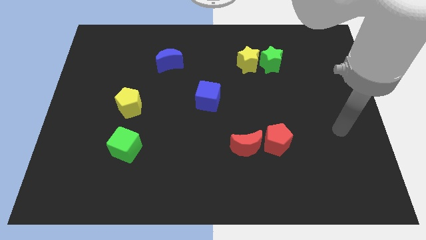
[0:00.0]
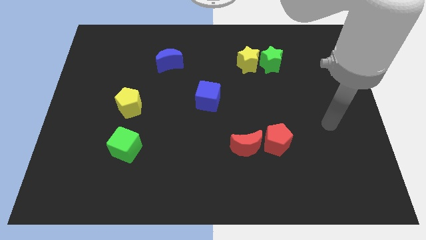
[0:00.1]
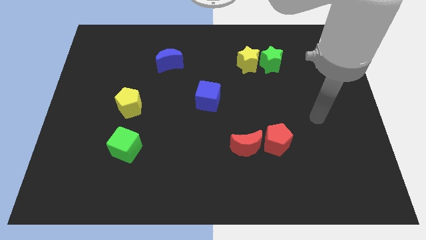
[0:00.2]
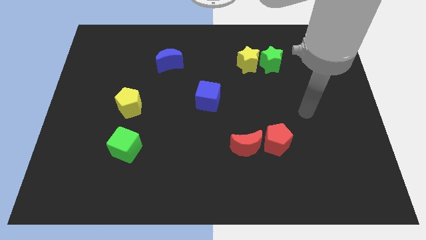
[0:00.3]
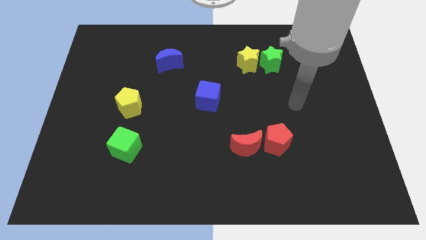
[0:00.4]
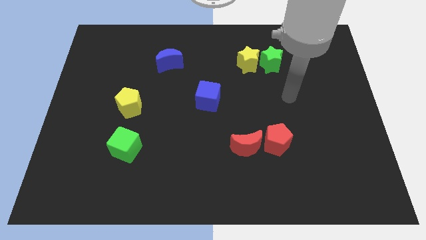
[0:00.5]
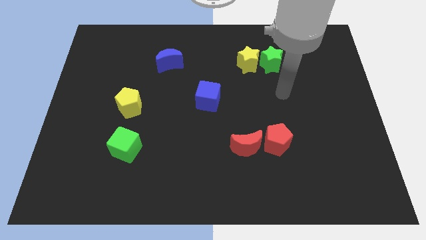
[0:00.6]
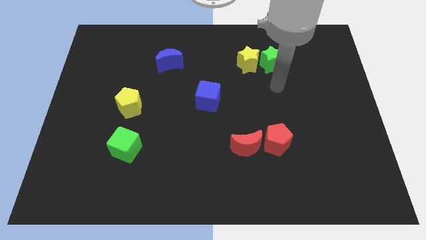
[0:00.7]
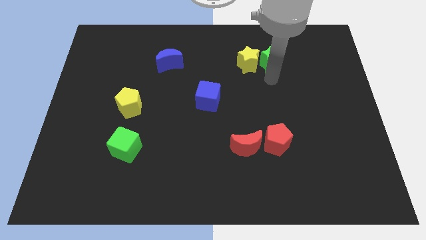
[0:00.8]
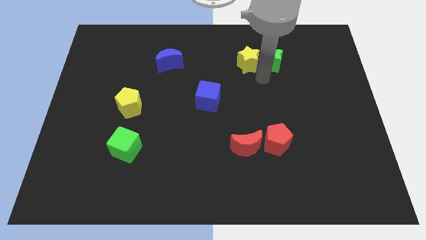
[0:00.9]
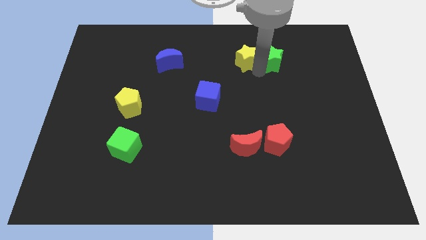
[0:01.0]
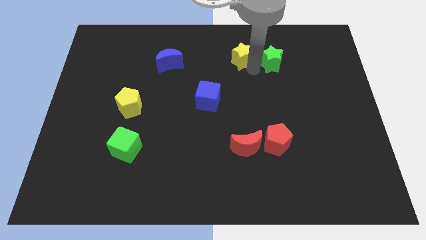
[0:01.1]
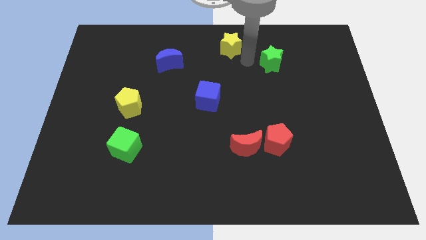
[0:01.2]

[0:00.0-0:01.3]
pull the green star apart from the yellow star

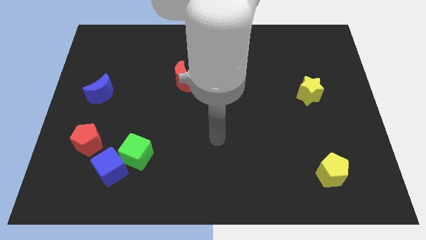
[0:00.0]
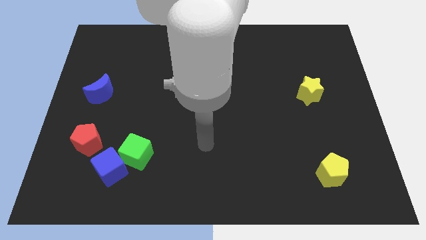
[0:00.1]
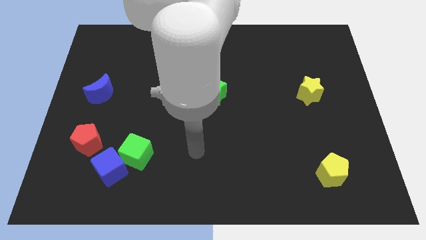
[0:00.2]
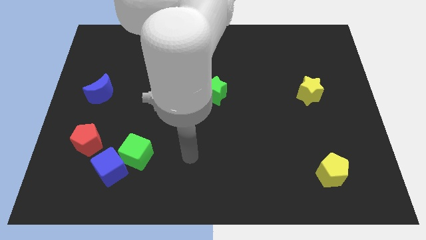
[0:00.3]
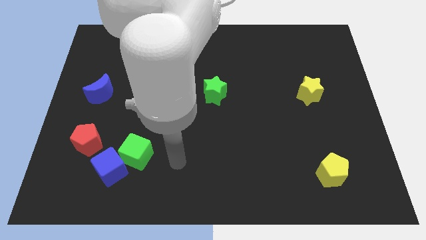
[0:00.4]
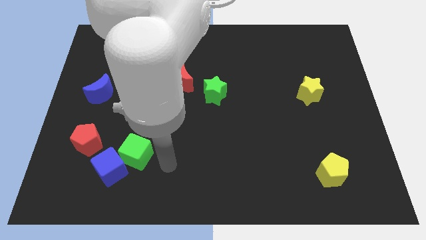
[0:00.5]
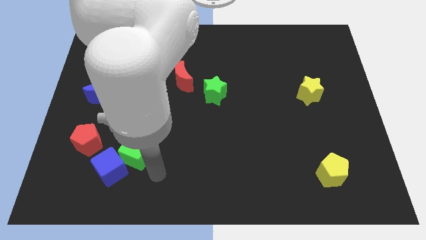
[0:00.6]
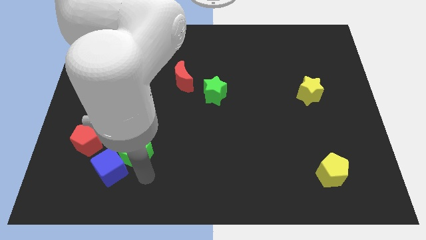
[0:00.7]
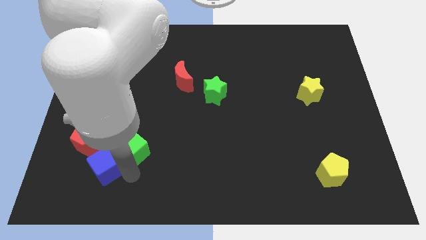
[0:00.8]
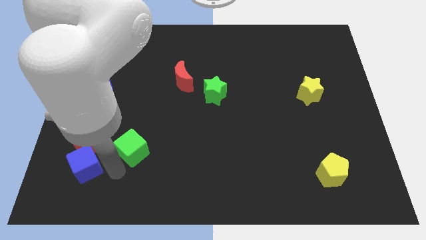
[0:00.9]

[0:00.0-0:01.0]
pull the green cube apart from the blue cube

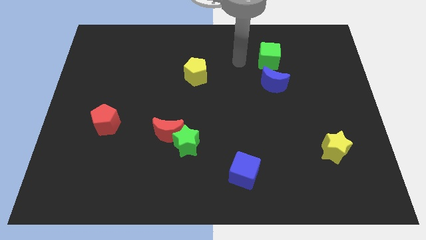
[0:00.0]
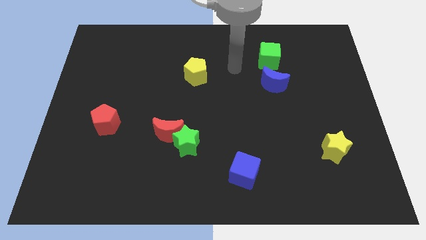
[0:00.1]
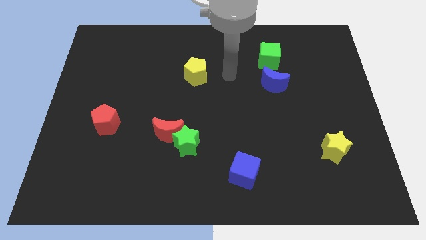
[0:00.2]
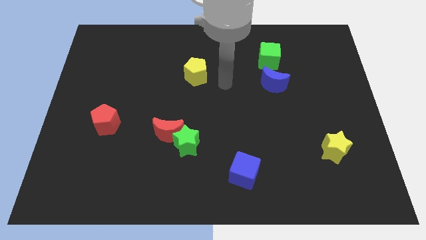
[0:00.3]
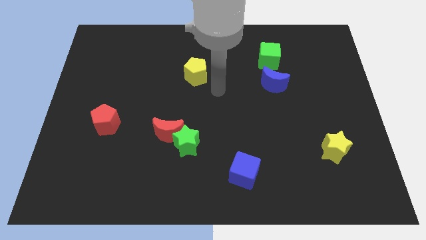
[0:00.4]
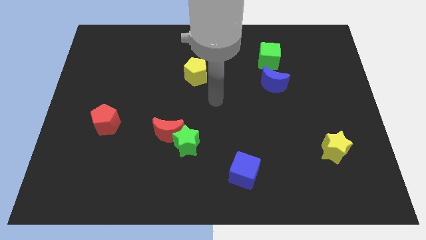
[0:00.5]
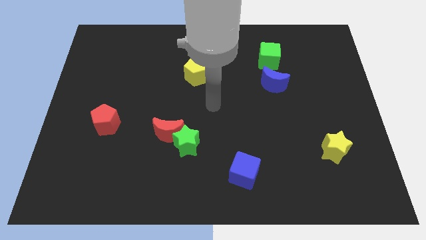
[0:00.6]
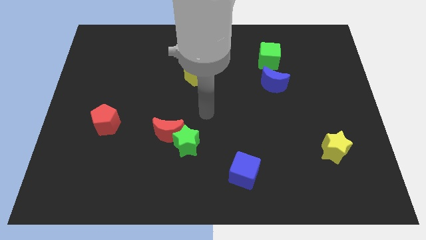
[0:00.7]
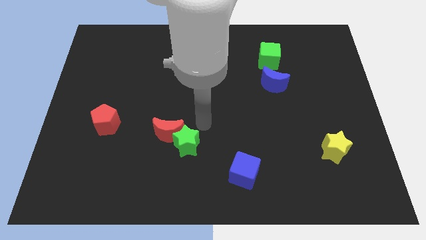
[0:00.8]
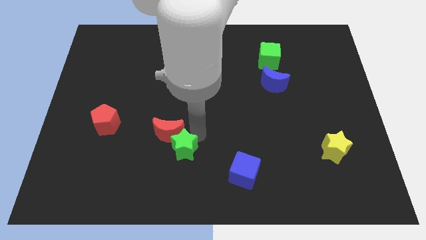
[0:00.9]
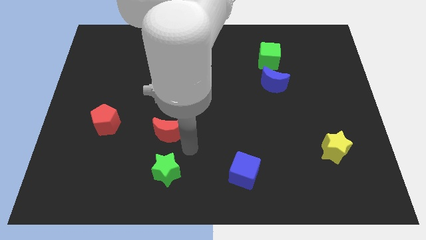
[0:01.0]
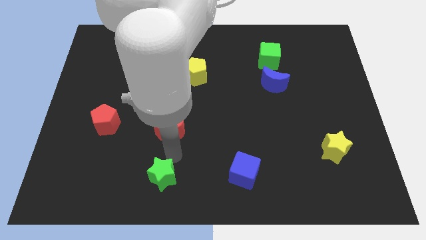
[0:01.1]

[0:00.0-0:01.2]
move the red moon away from the green star

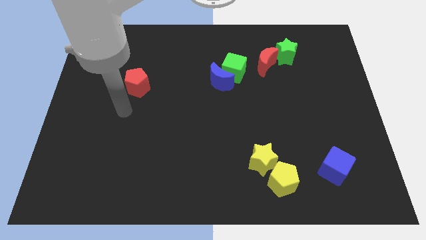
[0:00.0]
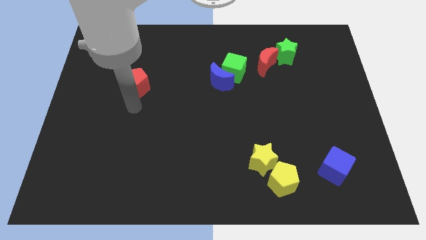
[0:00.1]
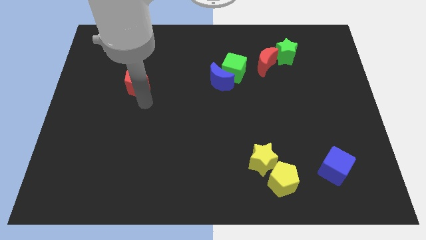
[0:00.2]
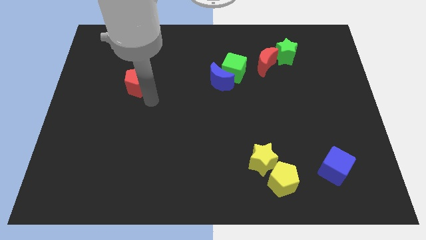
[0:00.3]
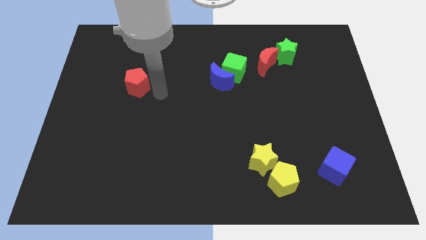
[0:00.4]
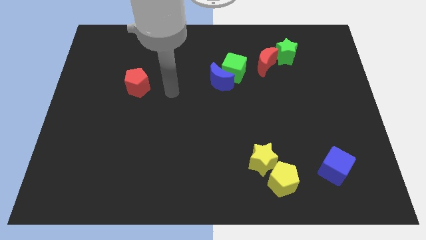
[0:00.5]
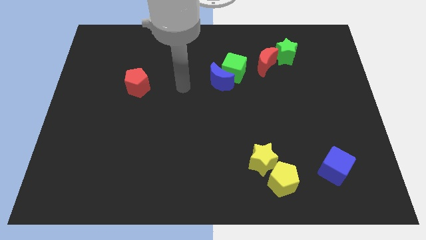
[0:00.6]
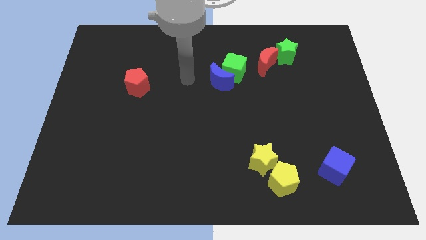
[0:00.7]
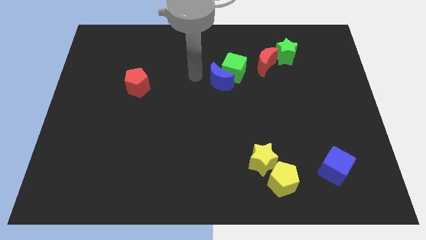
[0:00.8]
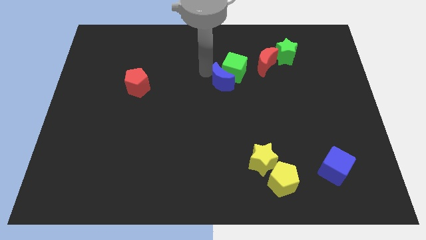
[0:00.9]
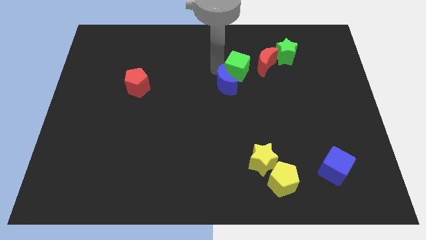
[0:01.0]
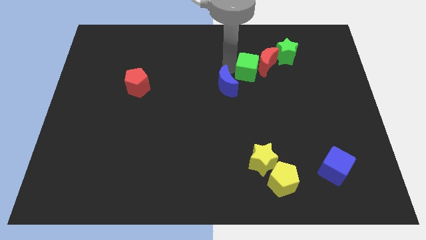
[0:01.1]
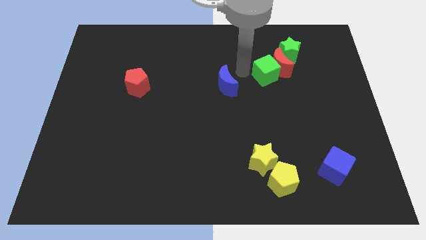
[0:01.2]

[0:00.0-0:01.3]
separate the blue moon from the green cube

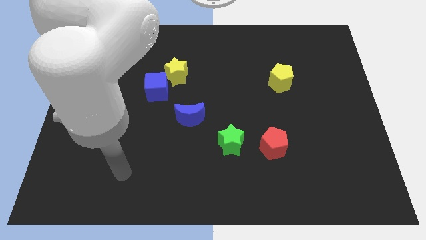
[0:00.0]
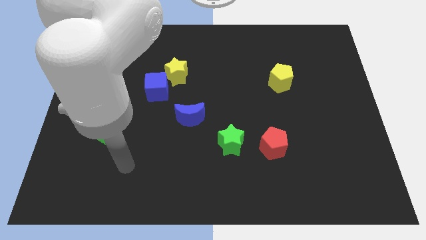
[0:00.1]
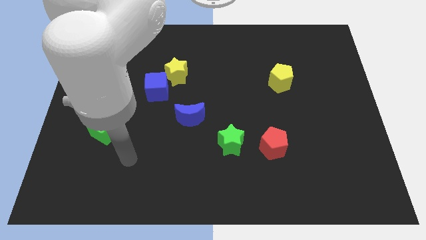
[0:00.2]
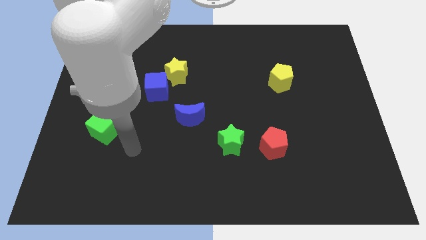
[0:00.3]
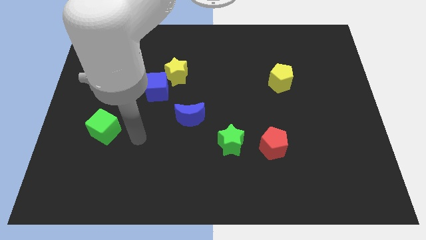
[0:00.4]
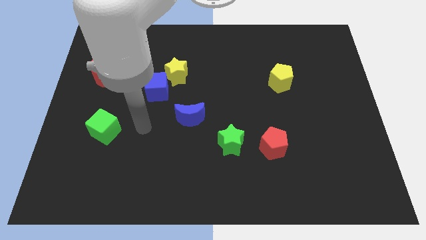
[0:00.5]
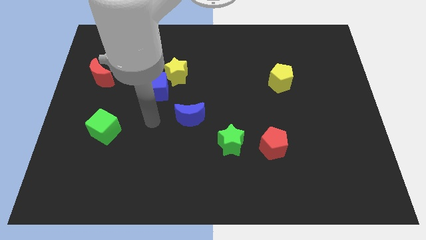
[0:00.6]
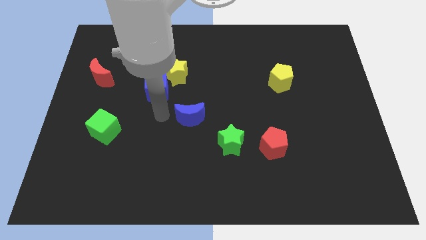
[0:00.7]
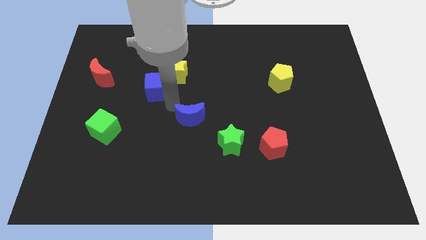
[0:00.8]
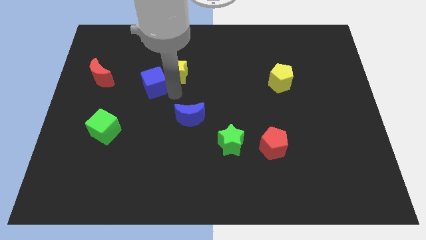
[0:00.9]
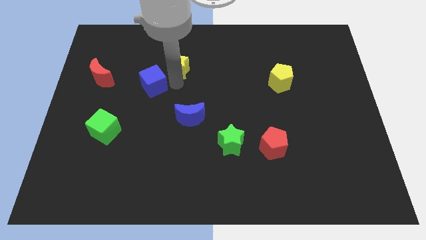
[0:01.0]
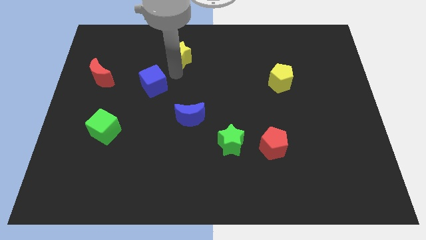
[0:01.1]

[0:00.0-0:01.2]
pull the blue cube apart from the yellow star

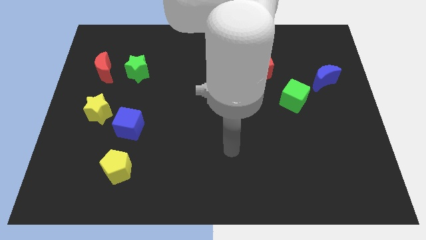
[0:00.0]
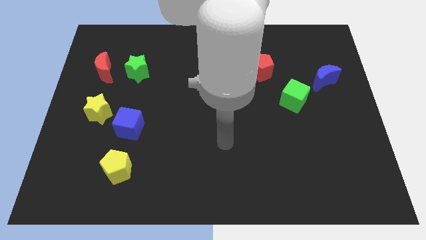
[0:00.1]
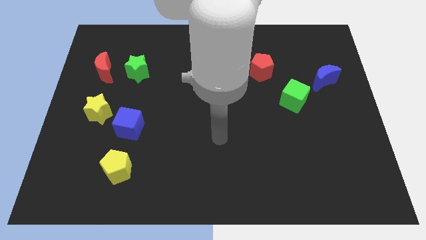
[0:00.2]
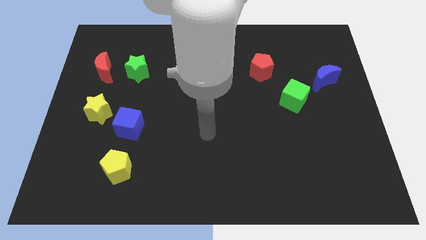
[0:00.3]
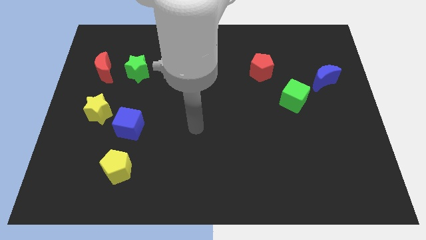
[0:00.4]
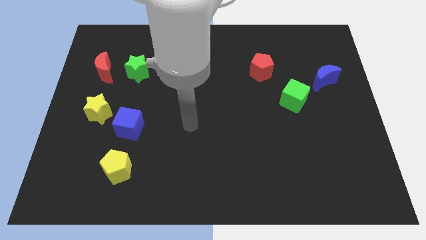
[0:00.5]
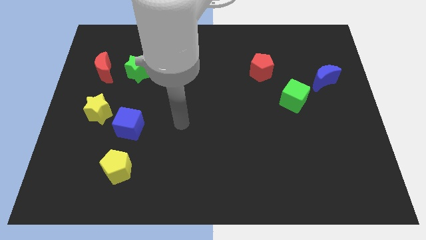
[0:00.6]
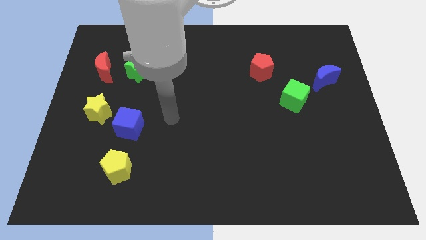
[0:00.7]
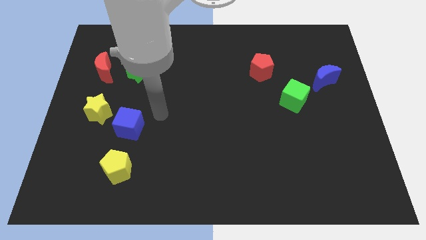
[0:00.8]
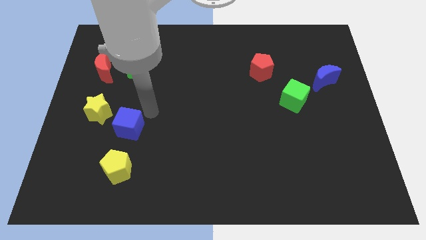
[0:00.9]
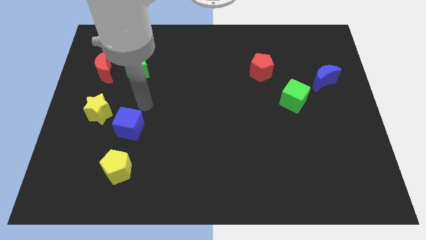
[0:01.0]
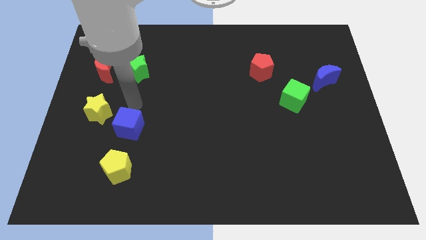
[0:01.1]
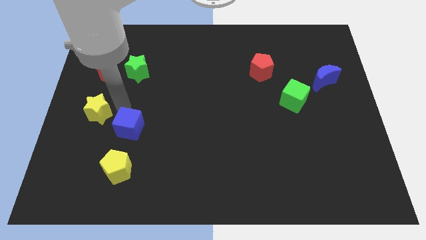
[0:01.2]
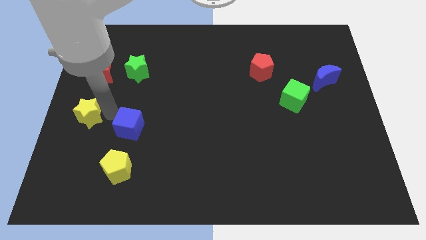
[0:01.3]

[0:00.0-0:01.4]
separate the blue cube from the yellow star

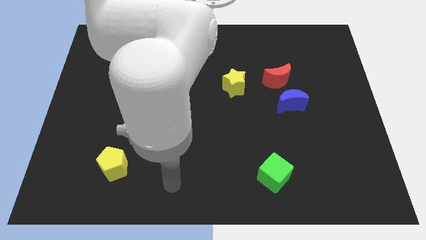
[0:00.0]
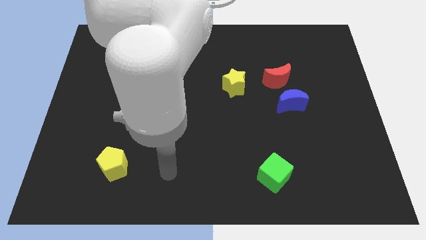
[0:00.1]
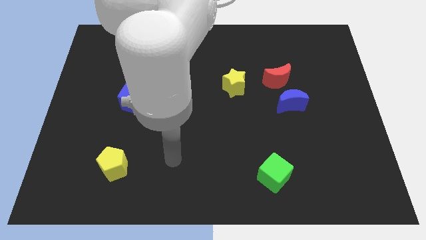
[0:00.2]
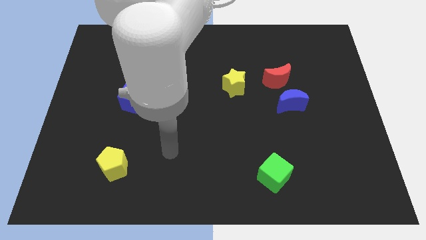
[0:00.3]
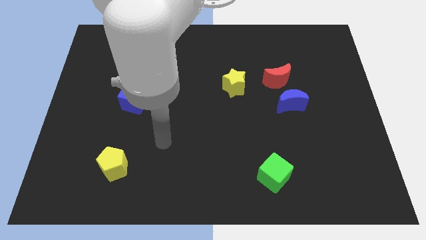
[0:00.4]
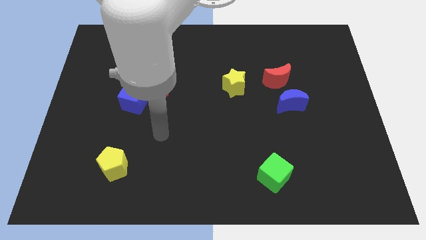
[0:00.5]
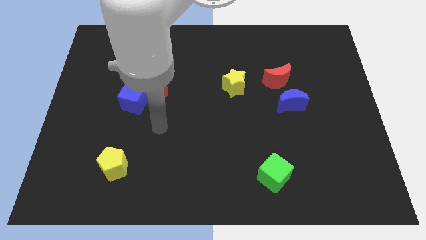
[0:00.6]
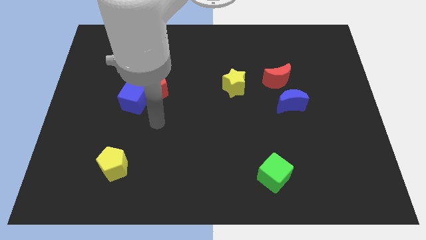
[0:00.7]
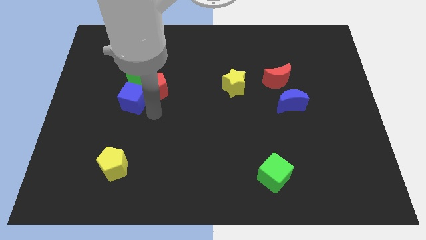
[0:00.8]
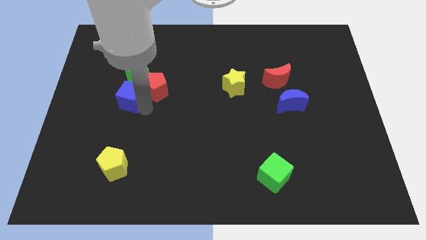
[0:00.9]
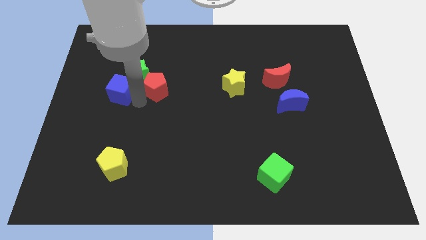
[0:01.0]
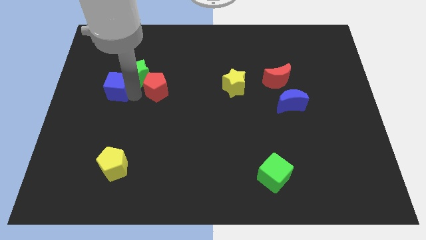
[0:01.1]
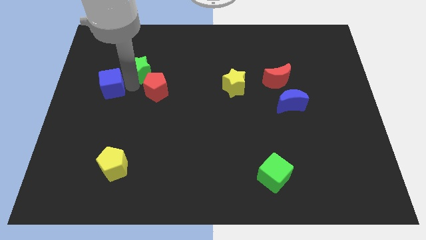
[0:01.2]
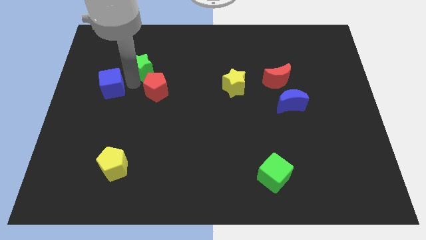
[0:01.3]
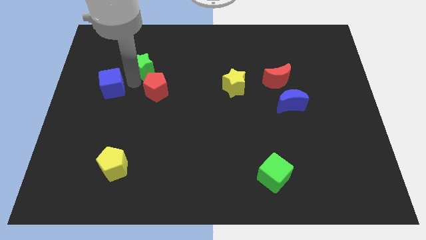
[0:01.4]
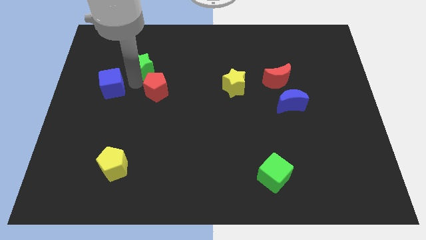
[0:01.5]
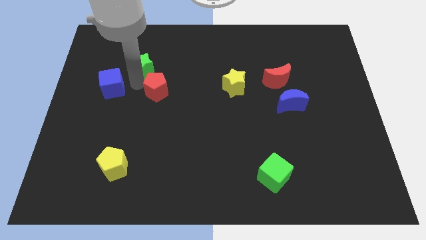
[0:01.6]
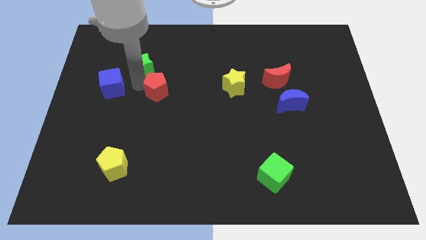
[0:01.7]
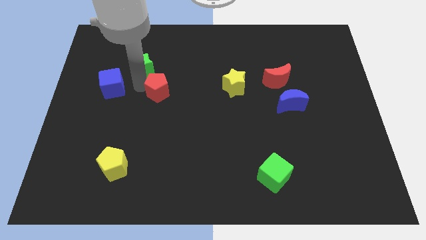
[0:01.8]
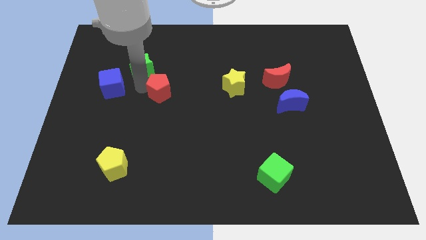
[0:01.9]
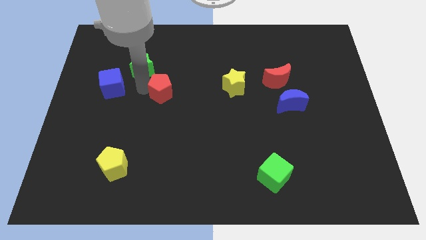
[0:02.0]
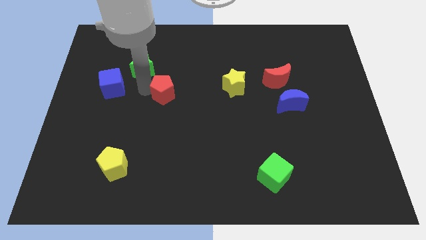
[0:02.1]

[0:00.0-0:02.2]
separate the red pentagon from the blue cube and green star
